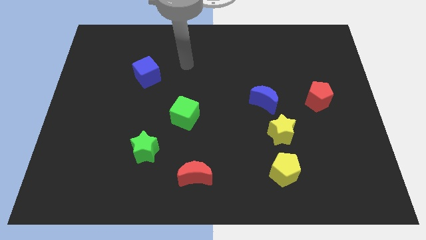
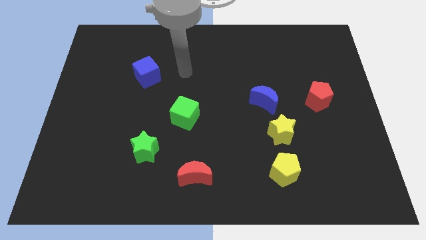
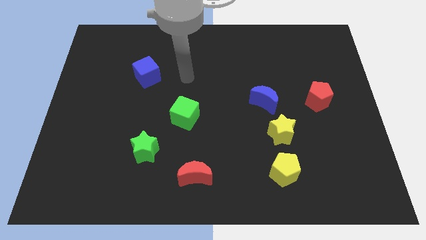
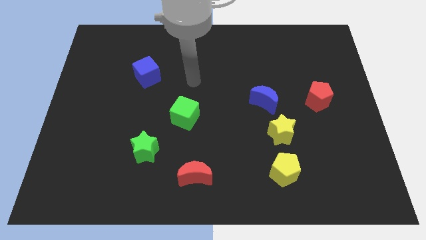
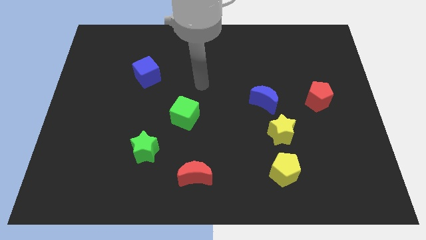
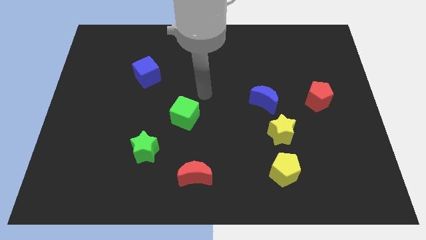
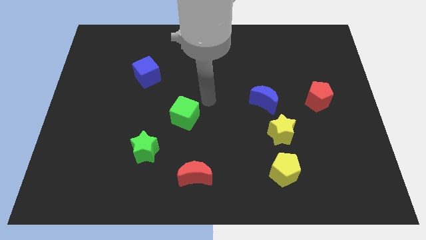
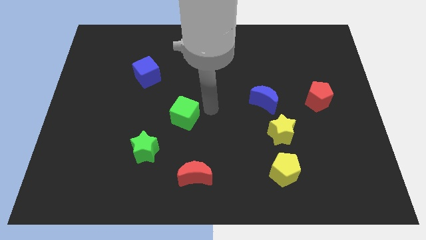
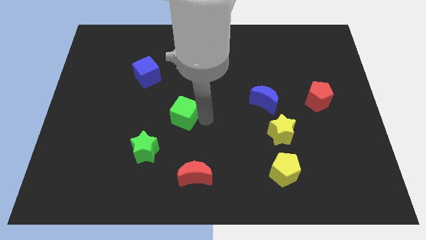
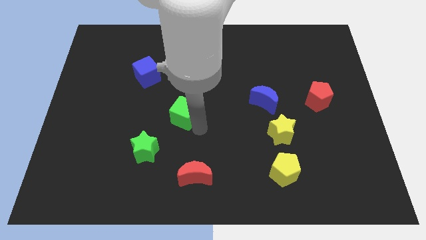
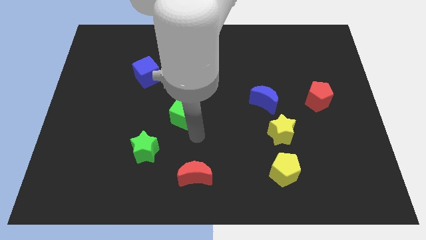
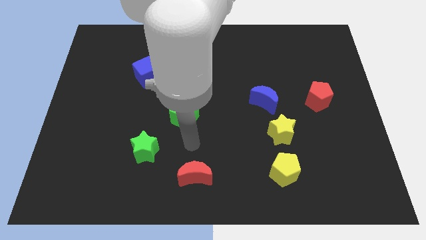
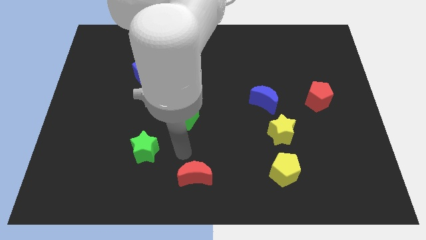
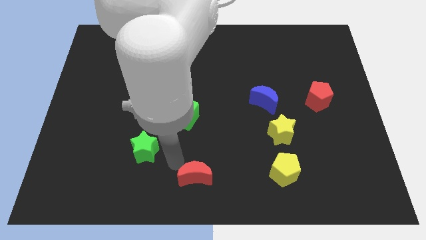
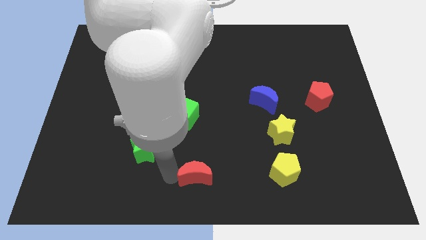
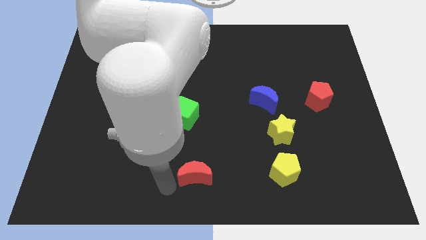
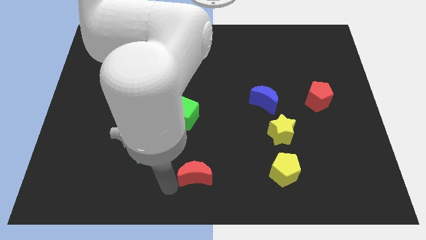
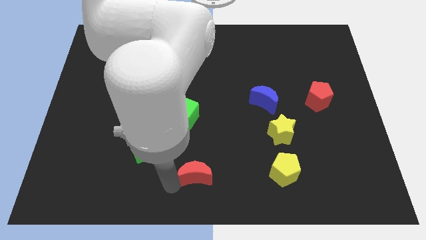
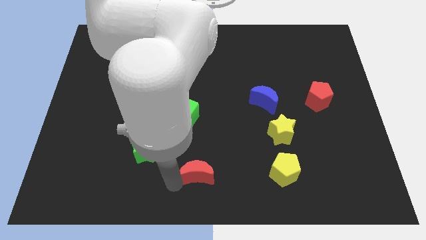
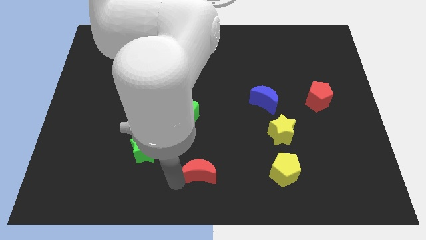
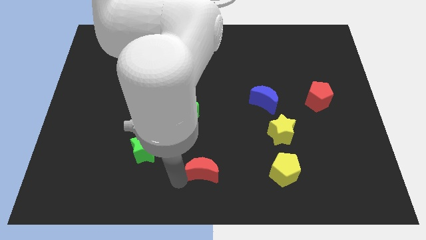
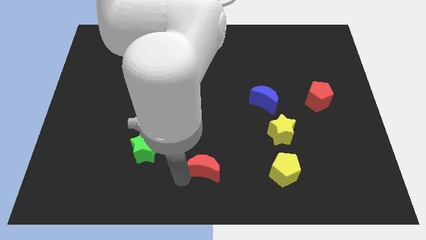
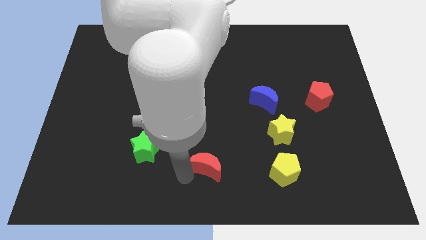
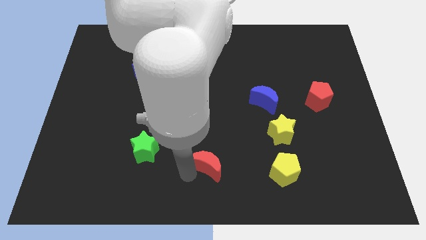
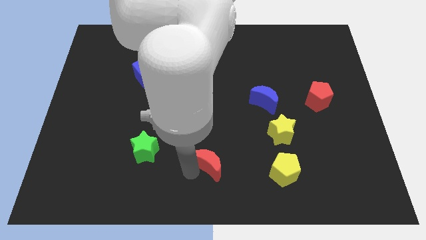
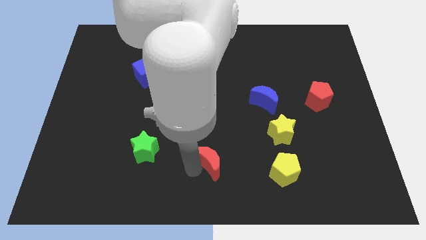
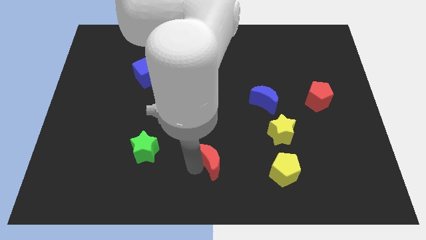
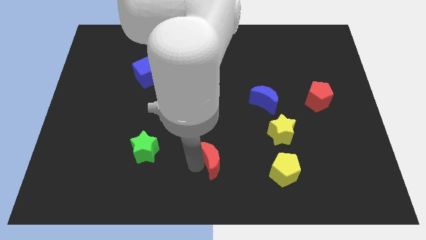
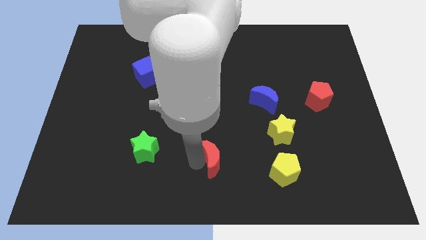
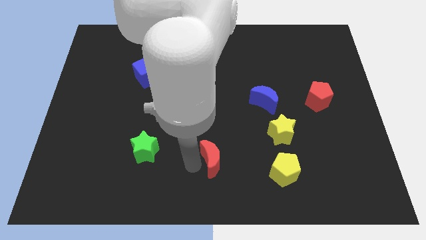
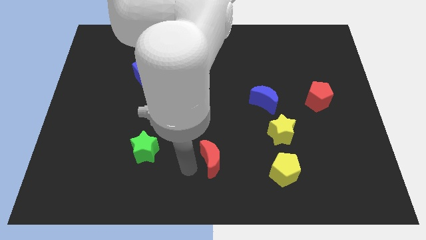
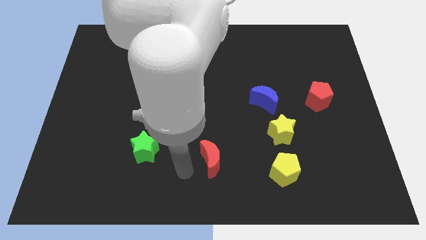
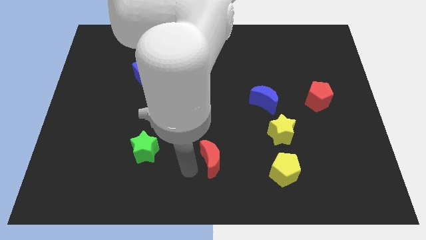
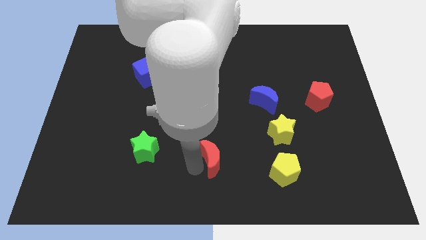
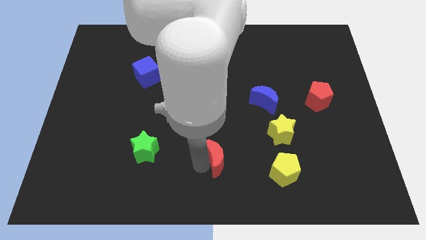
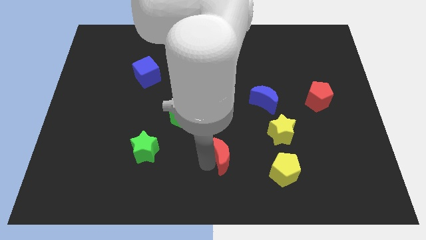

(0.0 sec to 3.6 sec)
push the red moon a little bit diagonally up and right

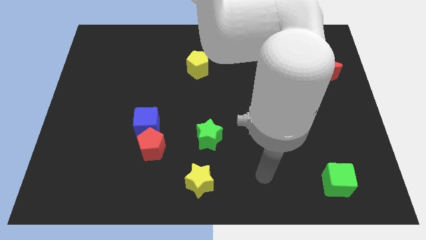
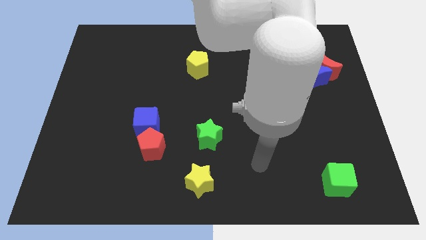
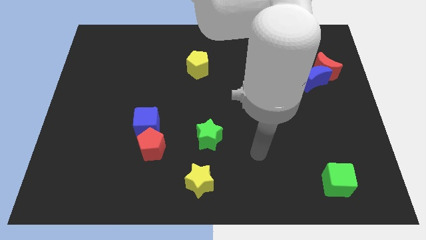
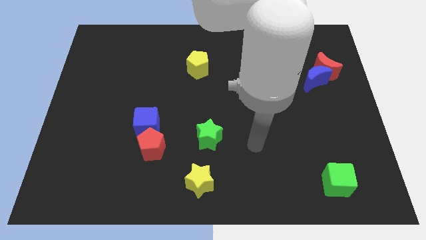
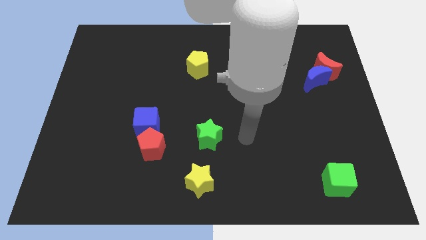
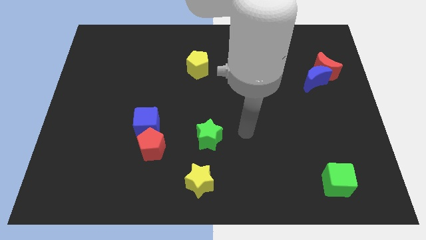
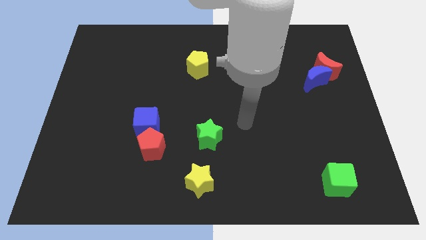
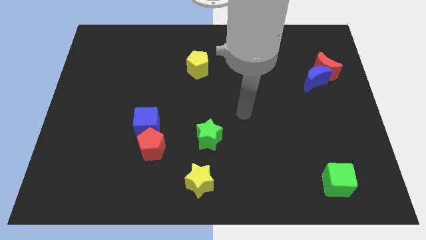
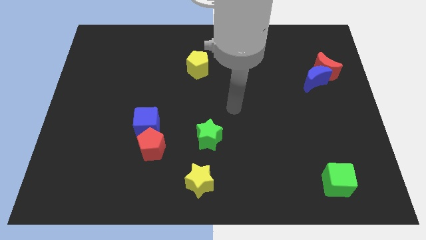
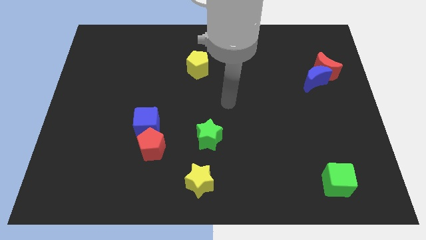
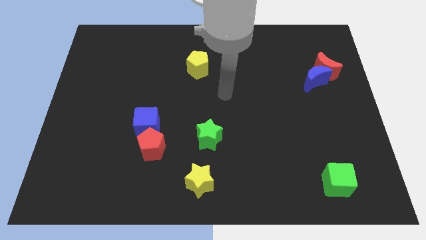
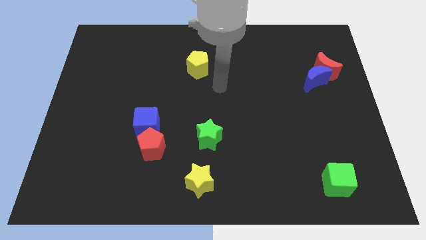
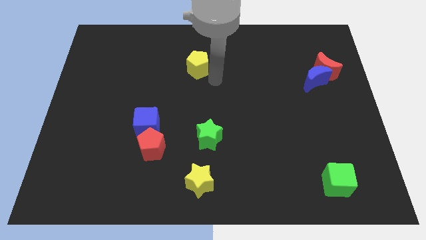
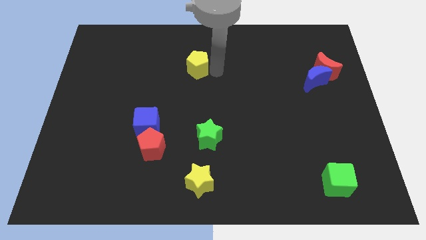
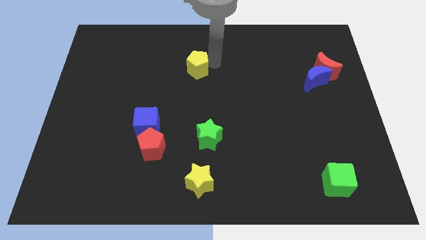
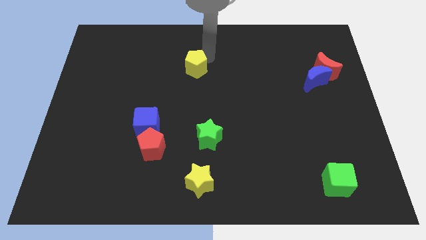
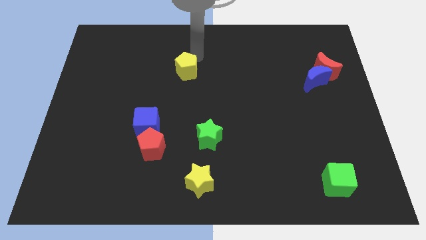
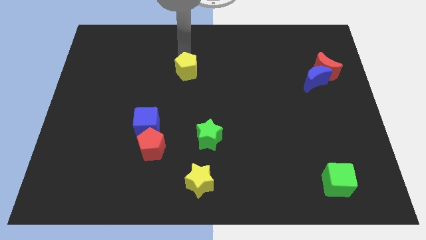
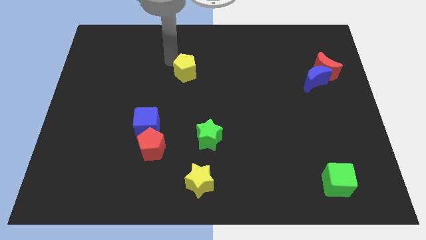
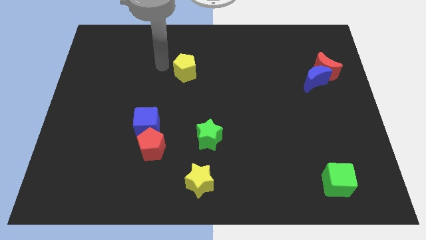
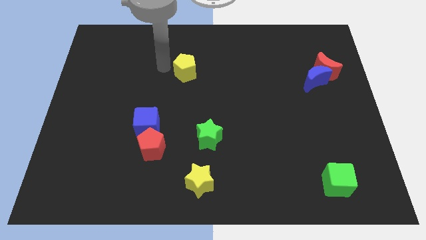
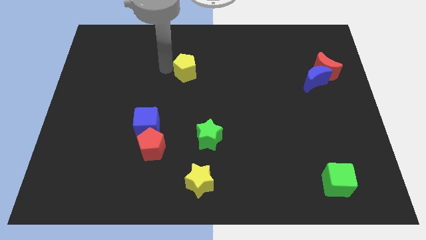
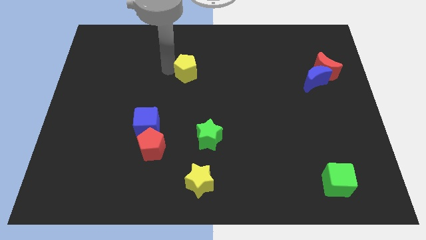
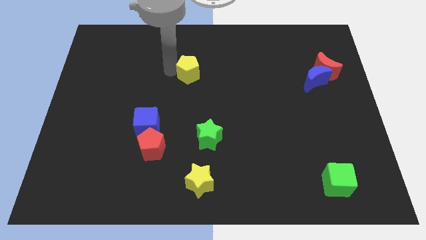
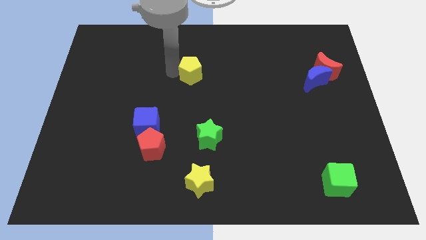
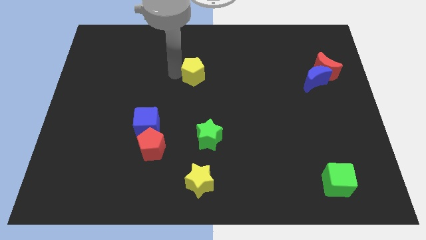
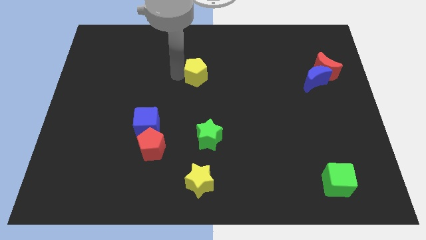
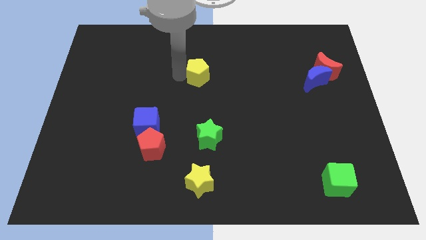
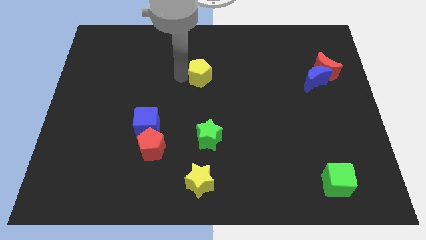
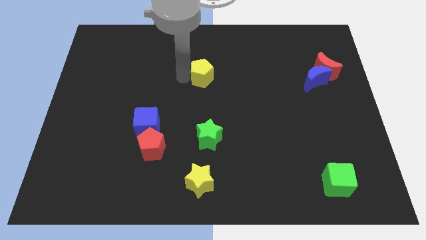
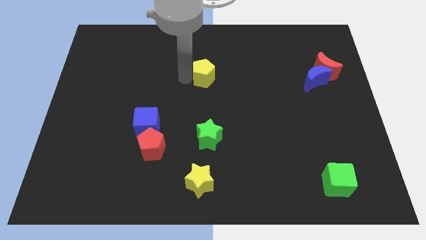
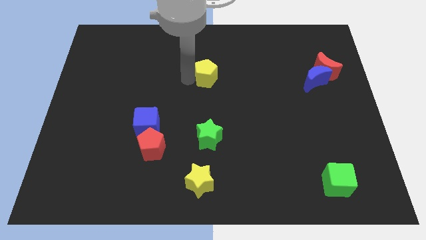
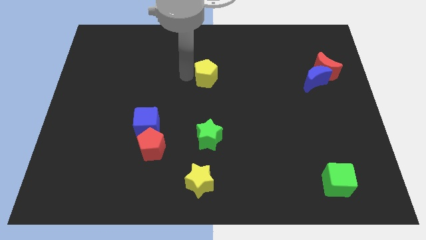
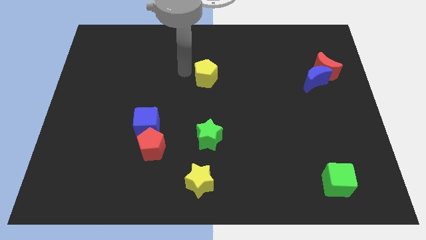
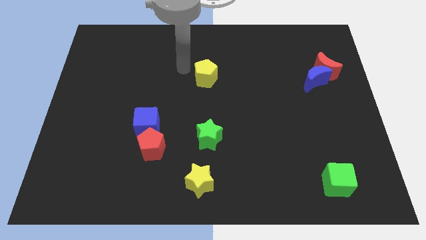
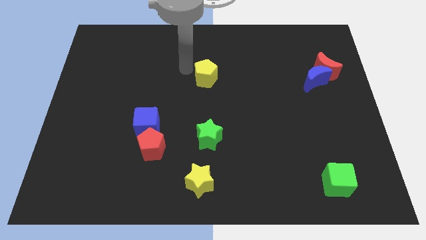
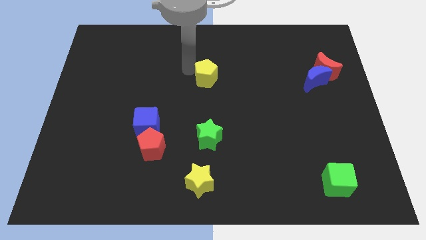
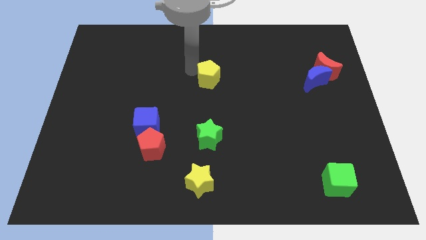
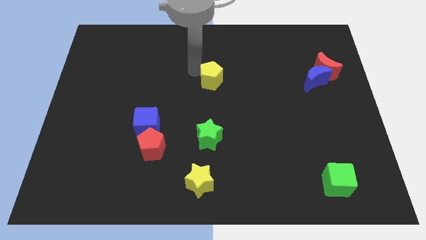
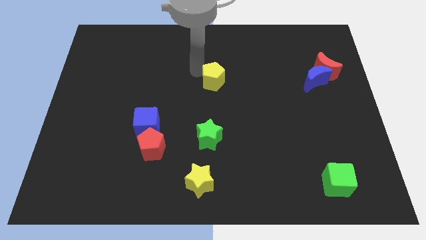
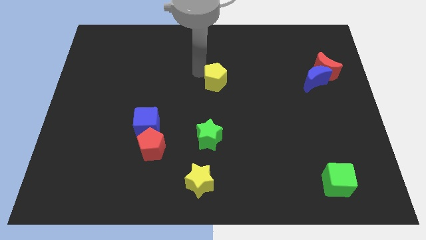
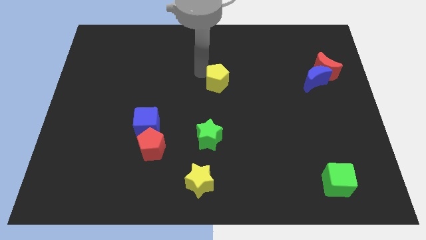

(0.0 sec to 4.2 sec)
push the yellow pentagon downwards and to the right diagonally slightly

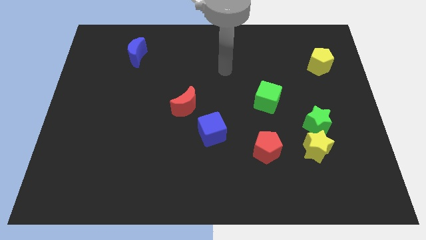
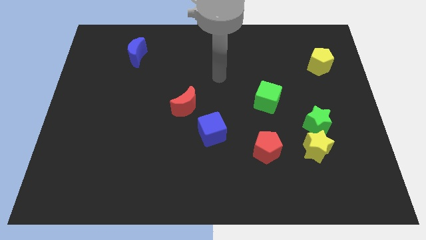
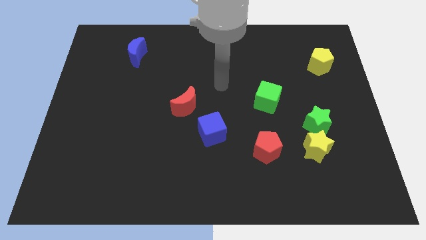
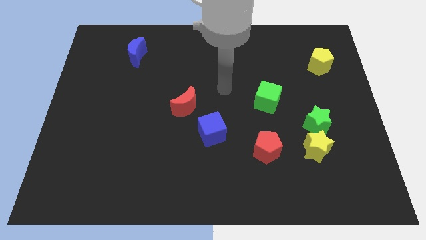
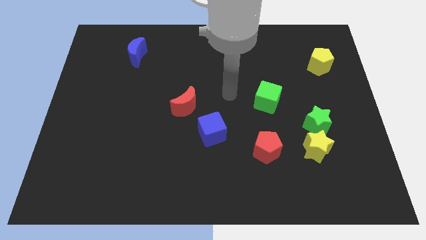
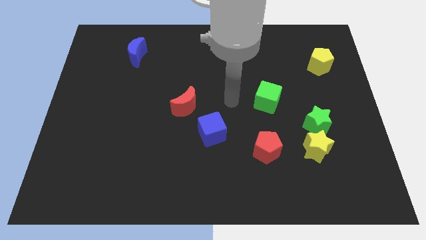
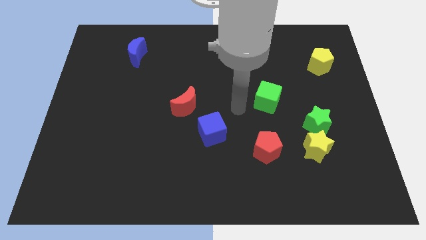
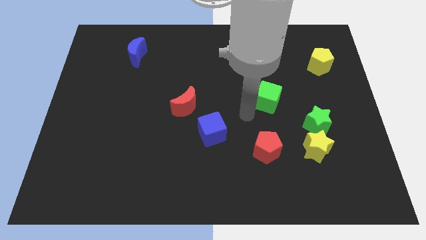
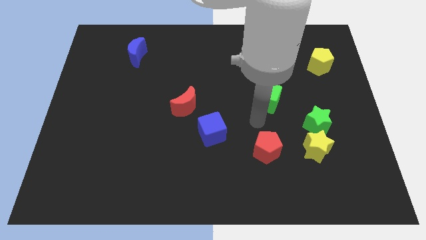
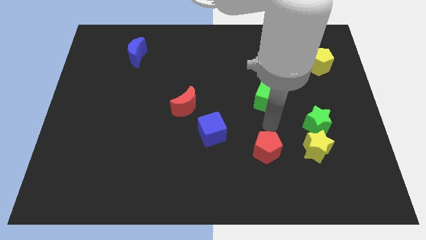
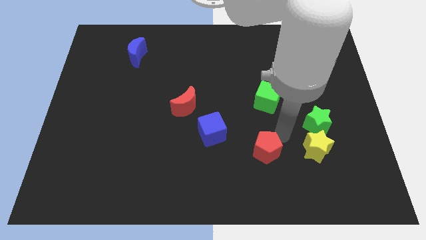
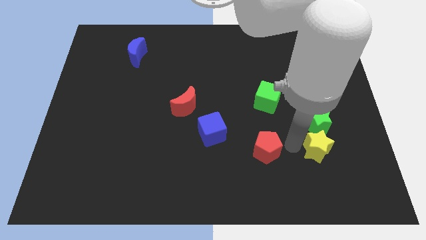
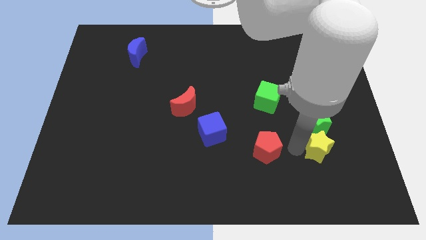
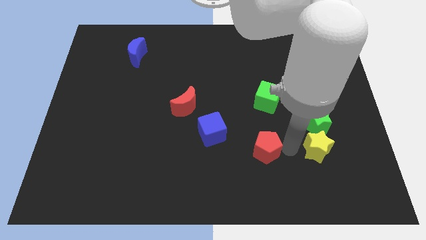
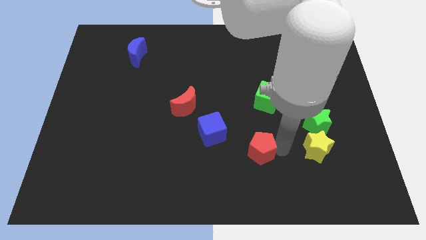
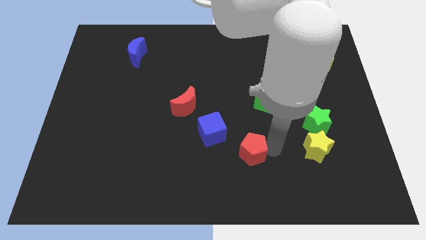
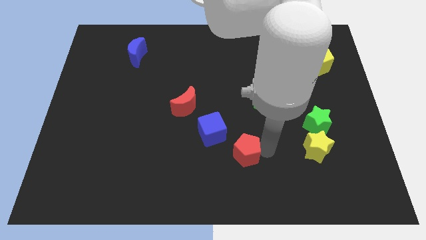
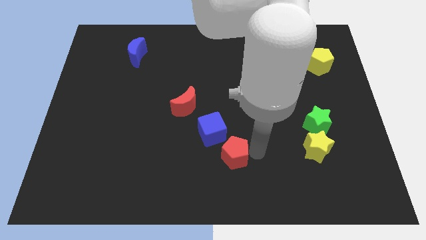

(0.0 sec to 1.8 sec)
slightly move the red pentagon left
